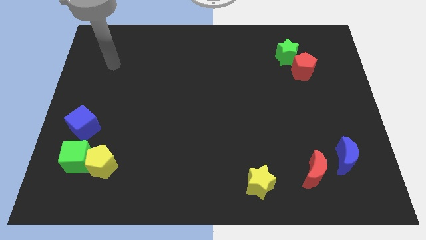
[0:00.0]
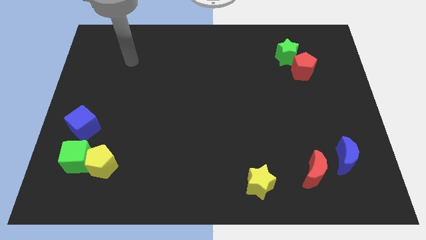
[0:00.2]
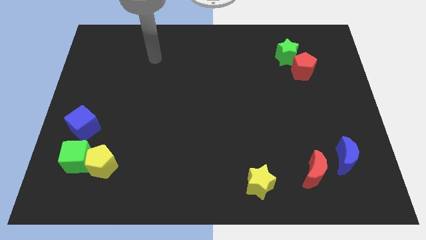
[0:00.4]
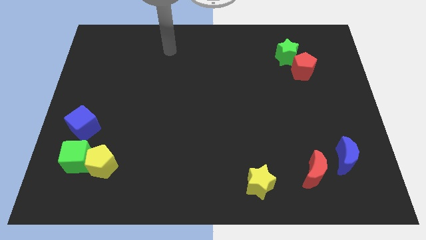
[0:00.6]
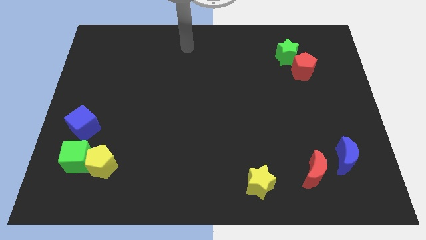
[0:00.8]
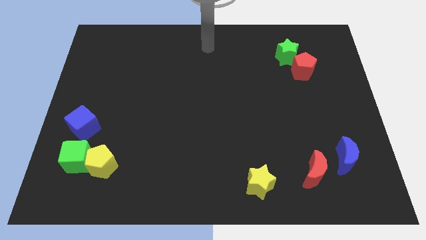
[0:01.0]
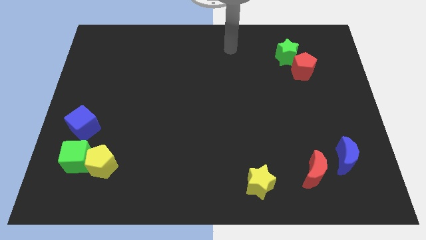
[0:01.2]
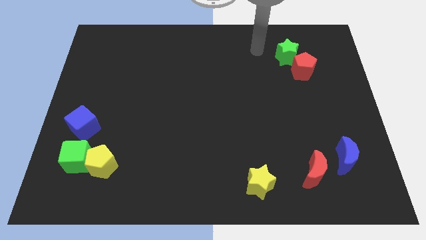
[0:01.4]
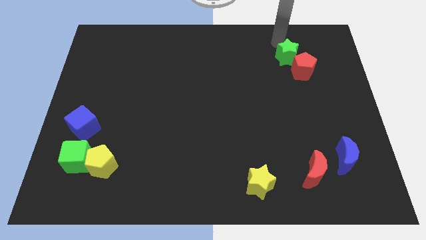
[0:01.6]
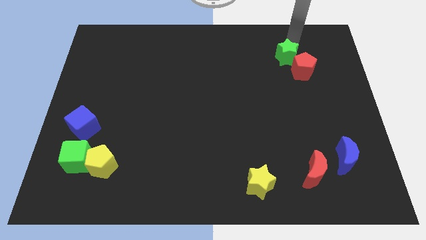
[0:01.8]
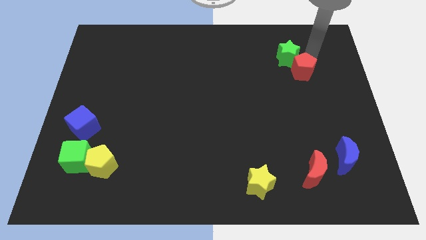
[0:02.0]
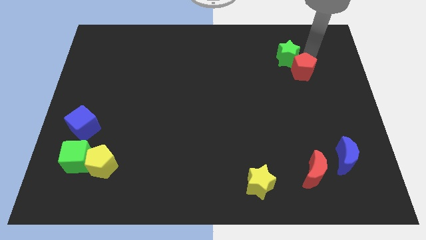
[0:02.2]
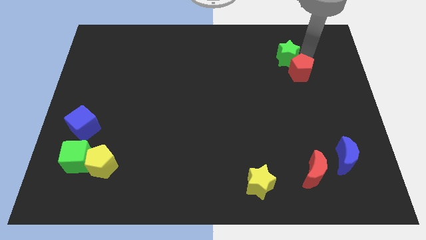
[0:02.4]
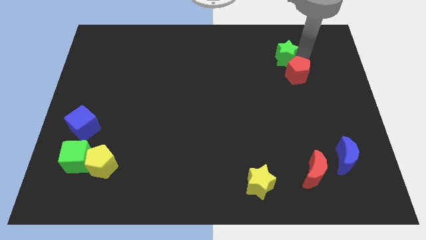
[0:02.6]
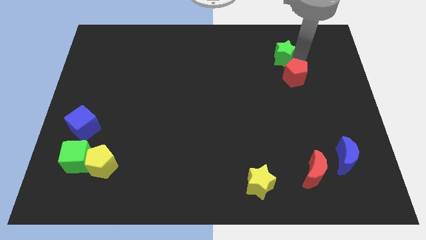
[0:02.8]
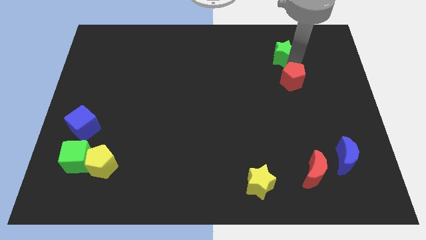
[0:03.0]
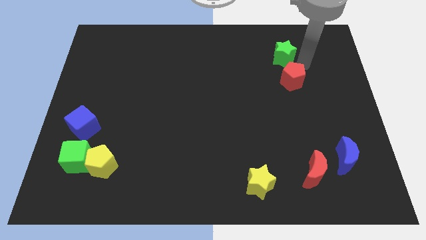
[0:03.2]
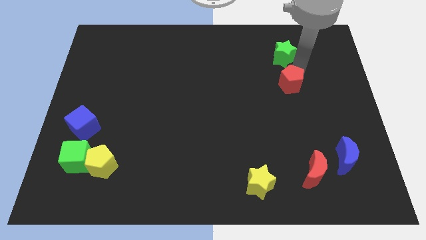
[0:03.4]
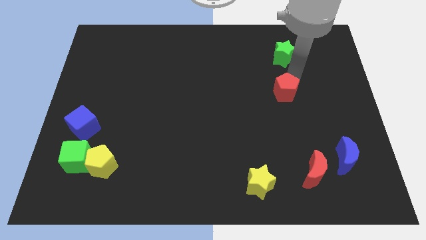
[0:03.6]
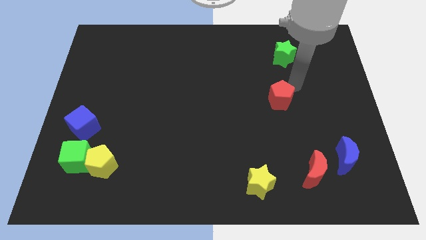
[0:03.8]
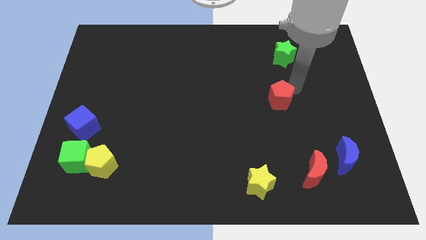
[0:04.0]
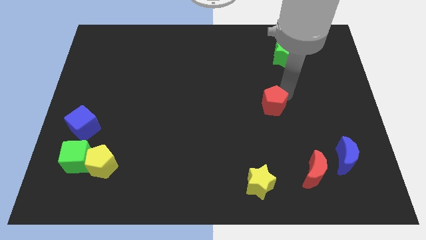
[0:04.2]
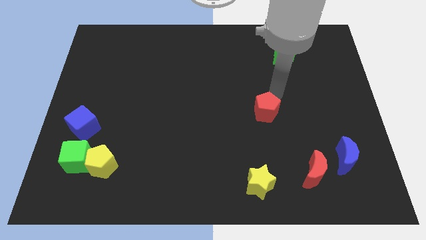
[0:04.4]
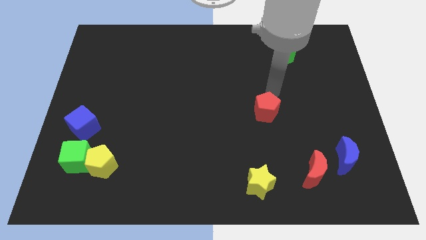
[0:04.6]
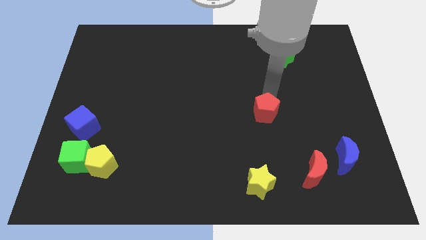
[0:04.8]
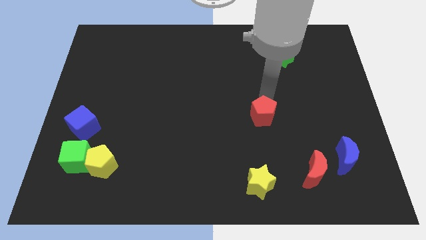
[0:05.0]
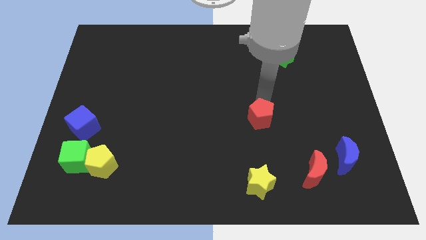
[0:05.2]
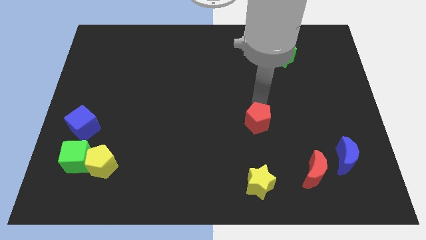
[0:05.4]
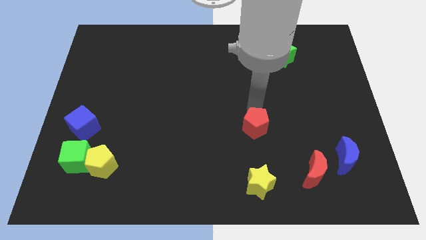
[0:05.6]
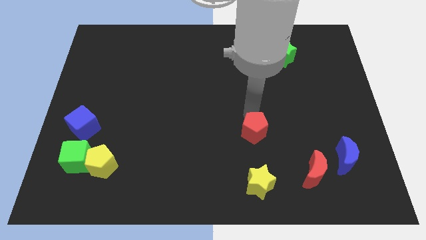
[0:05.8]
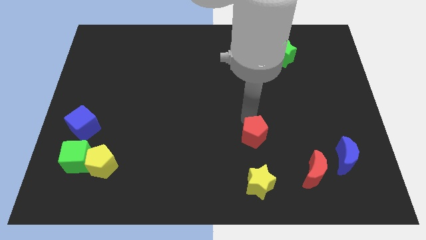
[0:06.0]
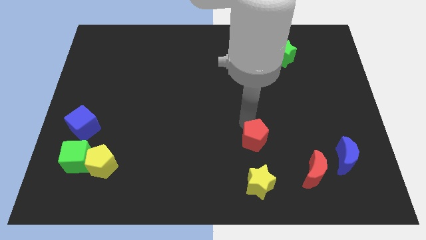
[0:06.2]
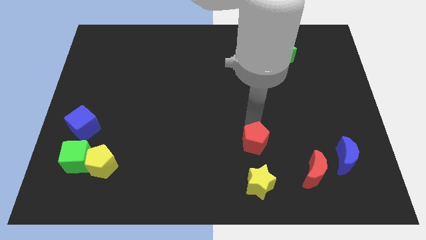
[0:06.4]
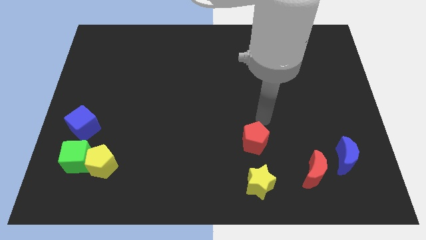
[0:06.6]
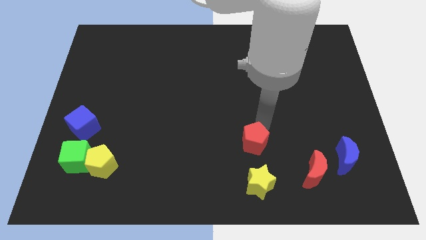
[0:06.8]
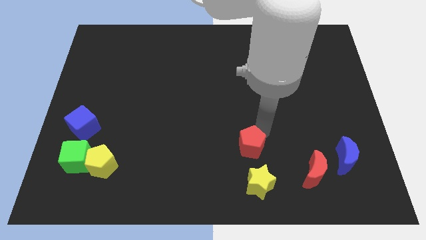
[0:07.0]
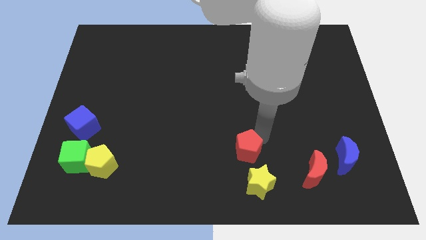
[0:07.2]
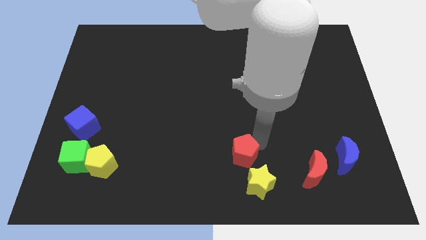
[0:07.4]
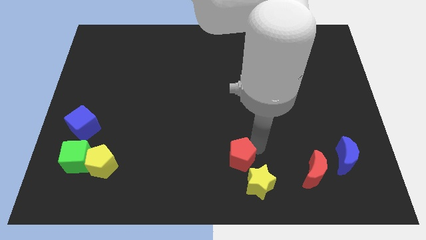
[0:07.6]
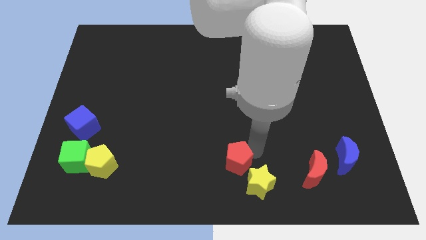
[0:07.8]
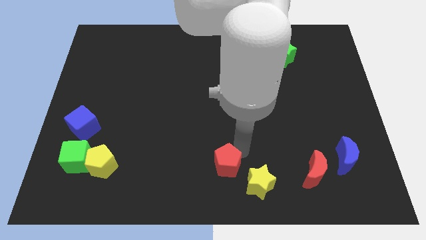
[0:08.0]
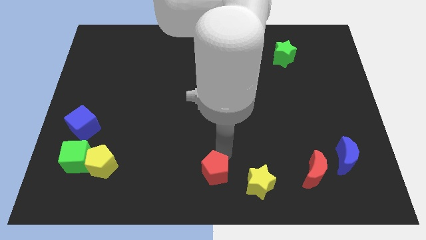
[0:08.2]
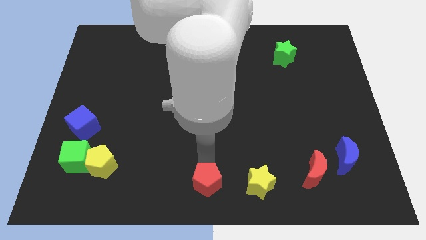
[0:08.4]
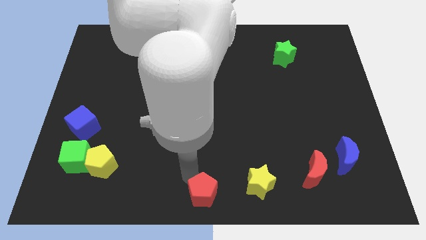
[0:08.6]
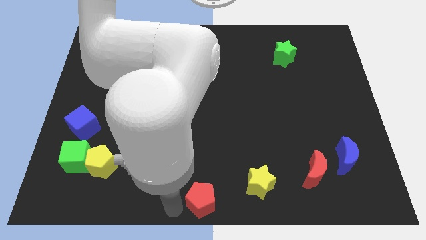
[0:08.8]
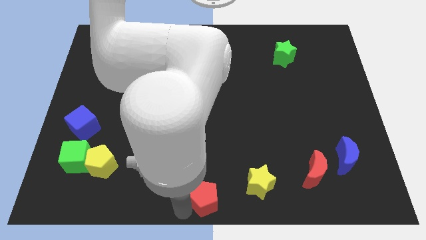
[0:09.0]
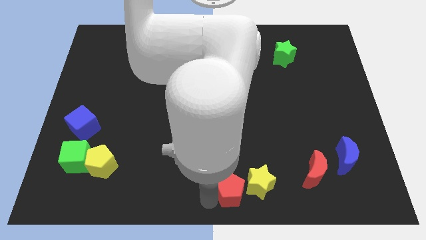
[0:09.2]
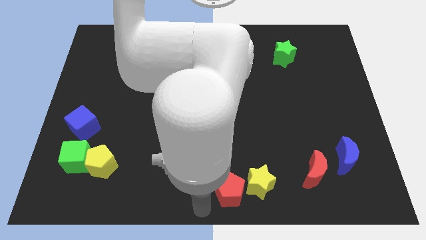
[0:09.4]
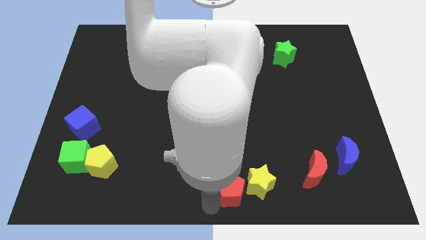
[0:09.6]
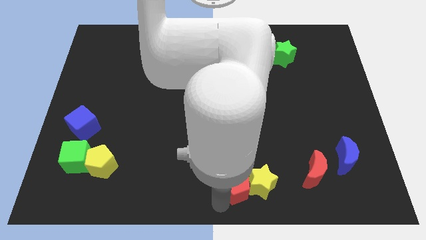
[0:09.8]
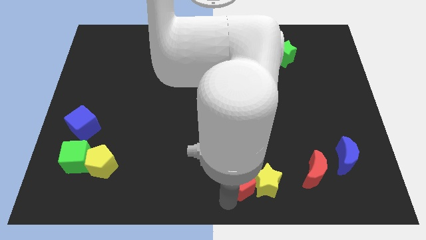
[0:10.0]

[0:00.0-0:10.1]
slide the red pentagon to the left of the red moon

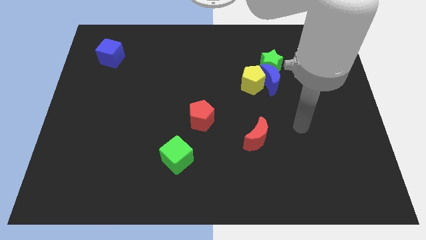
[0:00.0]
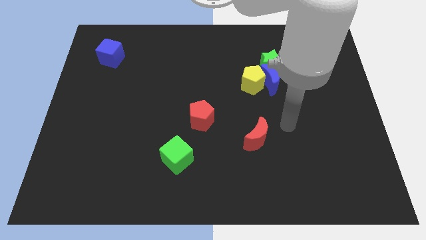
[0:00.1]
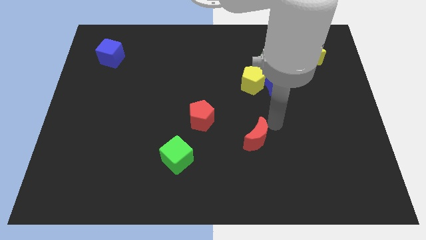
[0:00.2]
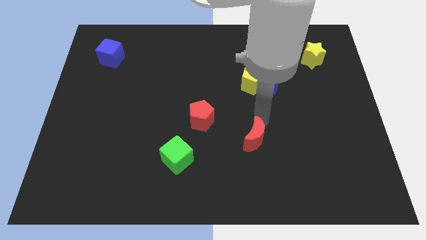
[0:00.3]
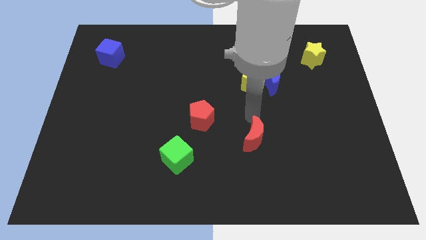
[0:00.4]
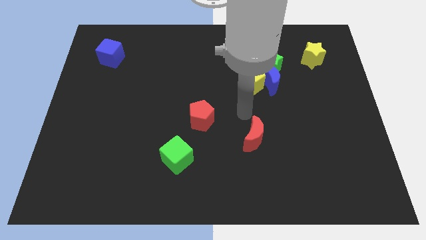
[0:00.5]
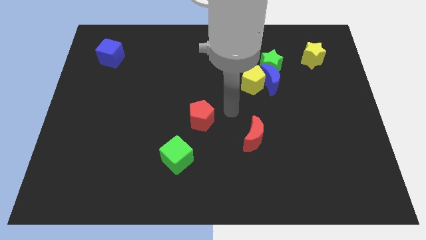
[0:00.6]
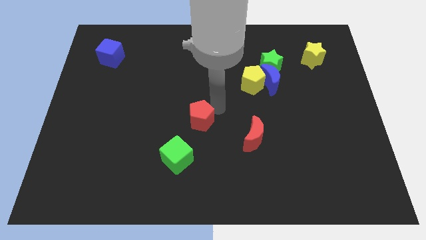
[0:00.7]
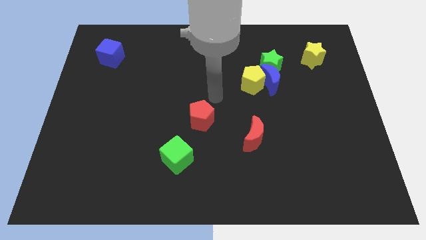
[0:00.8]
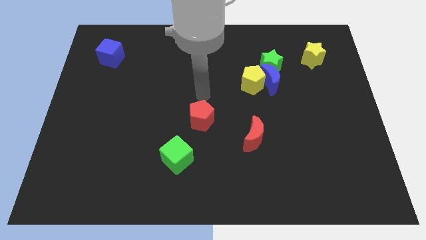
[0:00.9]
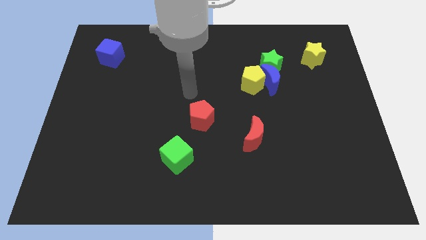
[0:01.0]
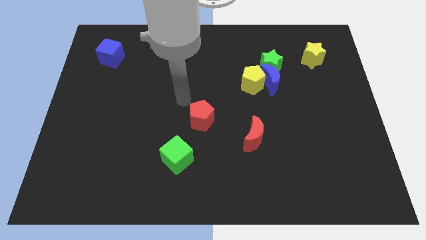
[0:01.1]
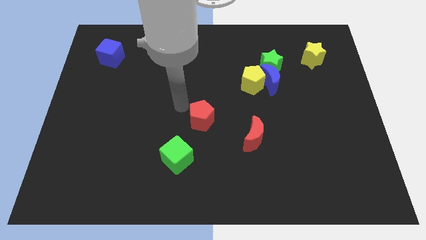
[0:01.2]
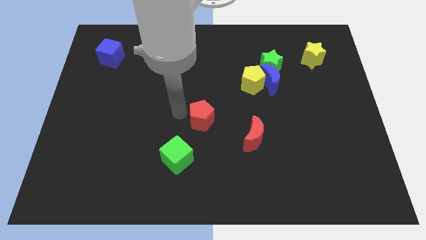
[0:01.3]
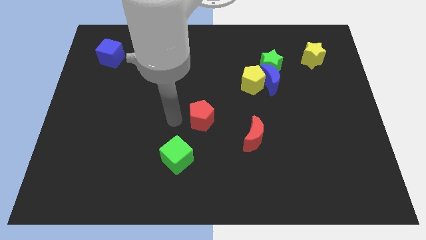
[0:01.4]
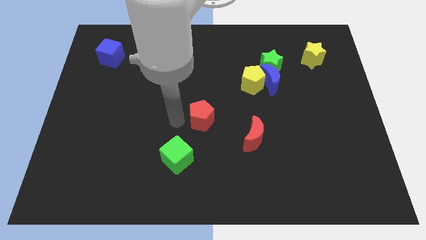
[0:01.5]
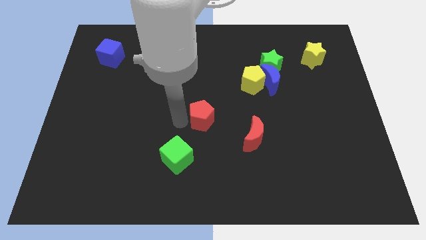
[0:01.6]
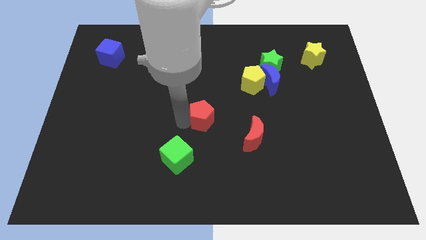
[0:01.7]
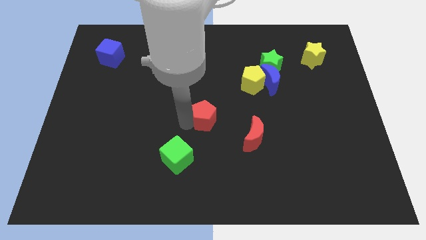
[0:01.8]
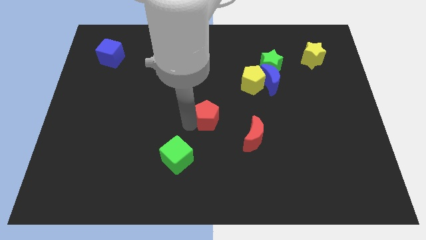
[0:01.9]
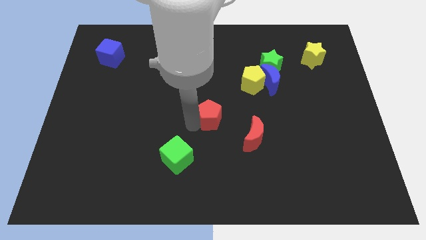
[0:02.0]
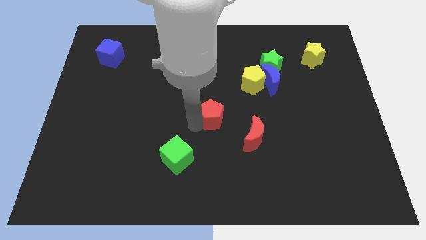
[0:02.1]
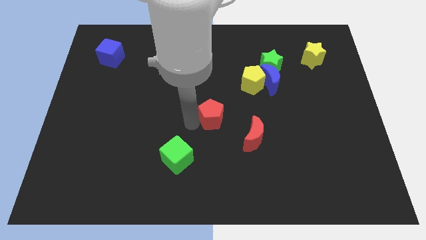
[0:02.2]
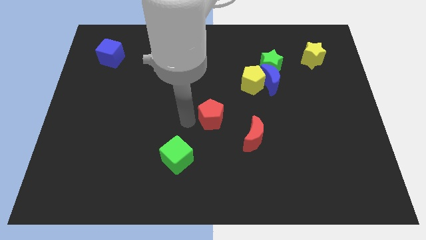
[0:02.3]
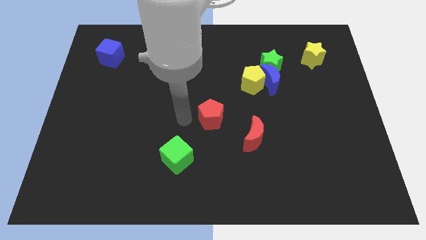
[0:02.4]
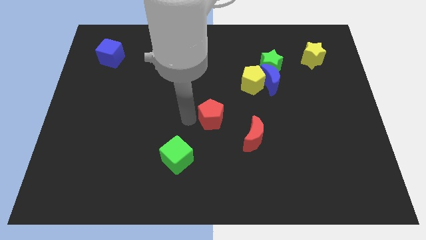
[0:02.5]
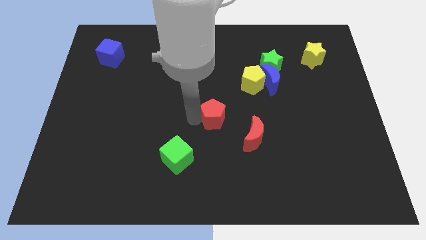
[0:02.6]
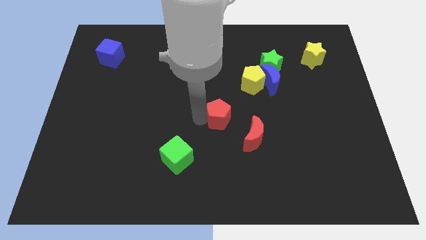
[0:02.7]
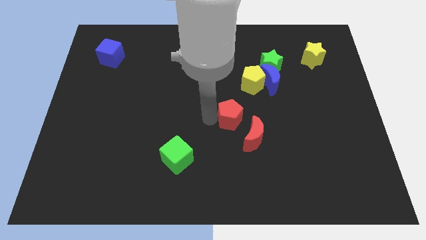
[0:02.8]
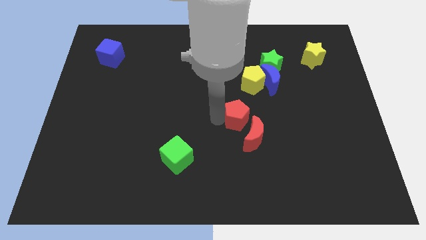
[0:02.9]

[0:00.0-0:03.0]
push the red pentagon to the bottom of the yellow pentagon
